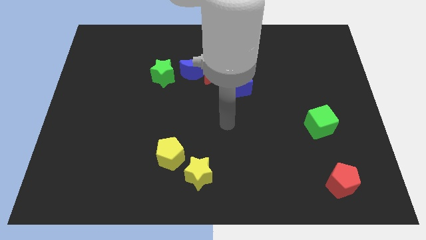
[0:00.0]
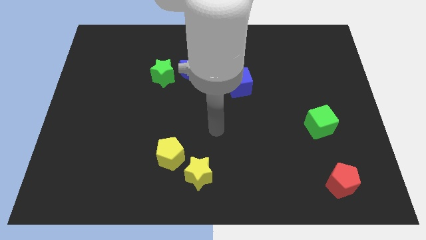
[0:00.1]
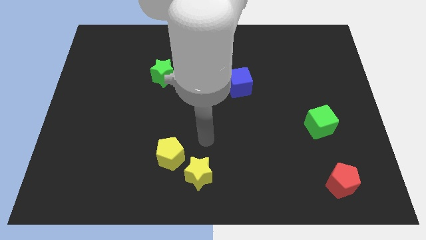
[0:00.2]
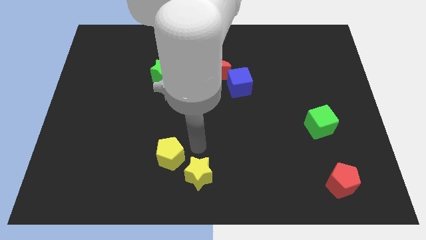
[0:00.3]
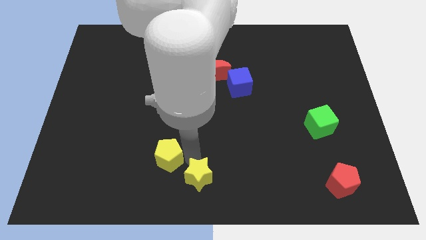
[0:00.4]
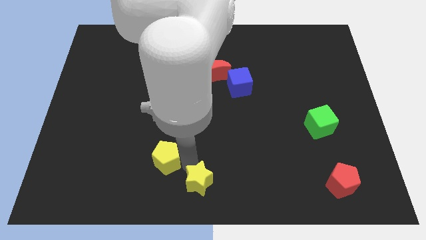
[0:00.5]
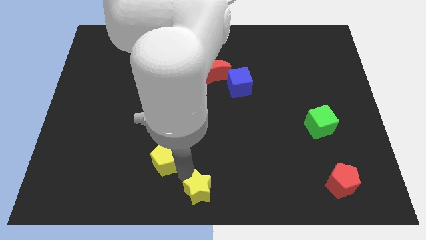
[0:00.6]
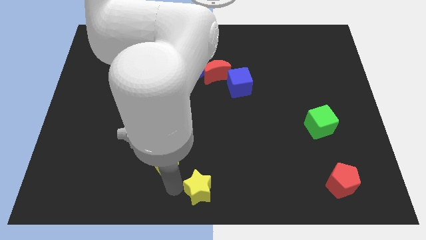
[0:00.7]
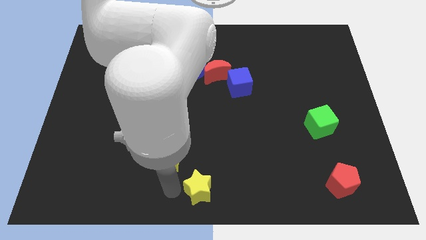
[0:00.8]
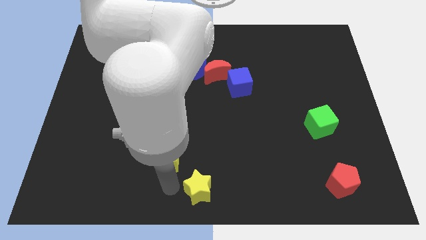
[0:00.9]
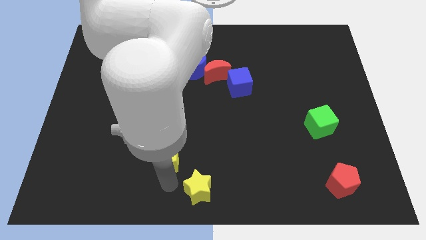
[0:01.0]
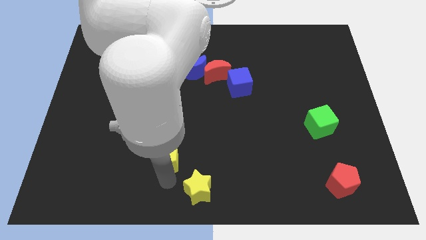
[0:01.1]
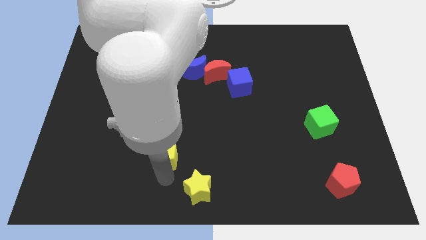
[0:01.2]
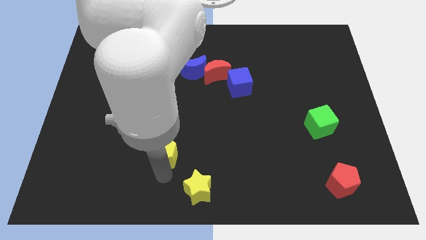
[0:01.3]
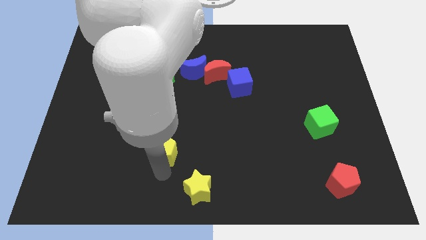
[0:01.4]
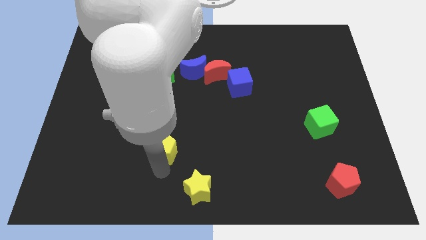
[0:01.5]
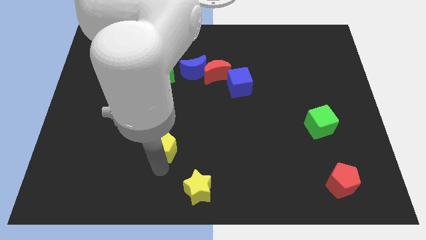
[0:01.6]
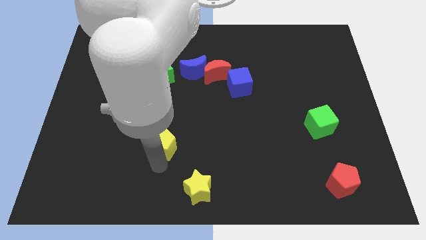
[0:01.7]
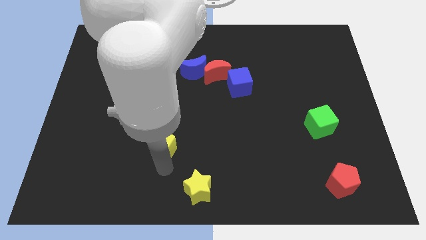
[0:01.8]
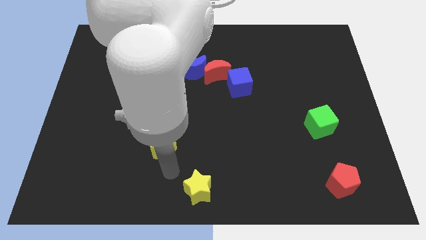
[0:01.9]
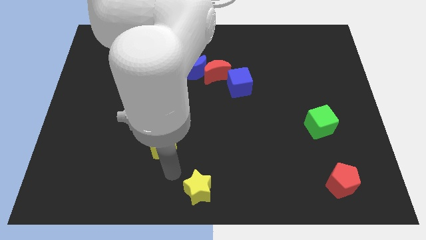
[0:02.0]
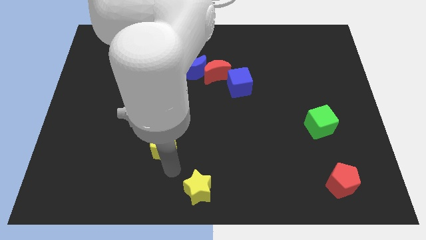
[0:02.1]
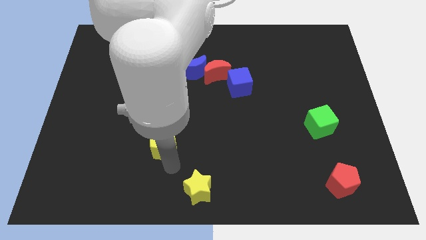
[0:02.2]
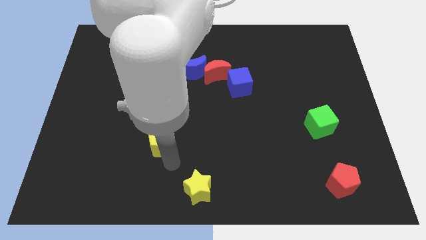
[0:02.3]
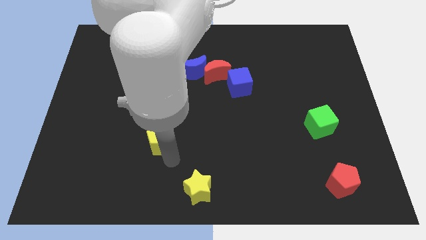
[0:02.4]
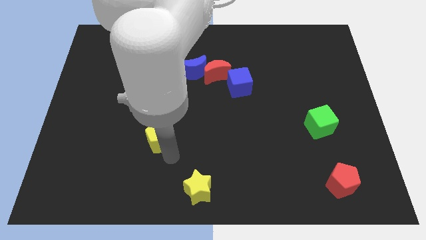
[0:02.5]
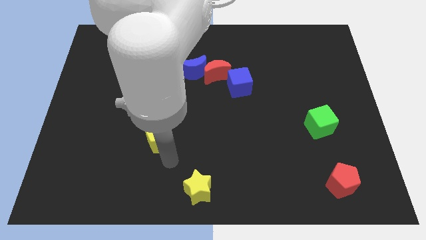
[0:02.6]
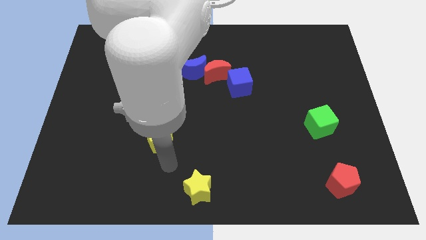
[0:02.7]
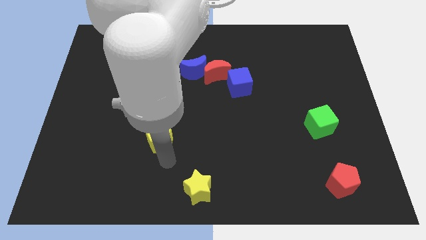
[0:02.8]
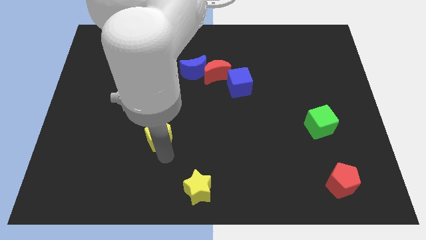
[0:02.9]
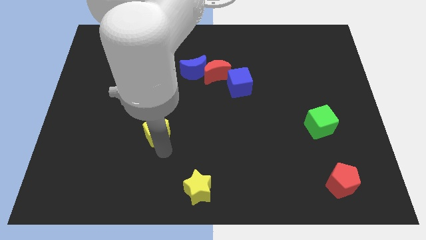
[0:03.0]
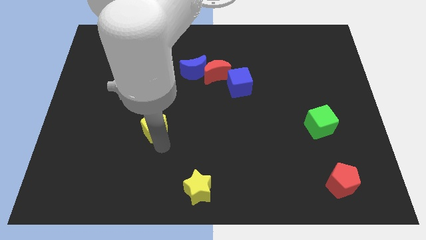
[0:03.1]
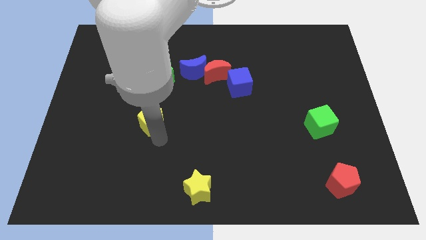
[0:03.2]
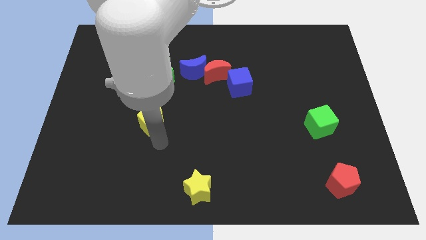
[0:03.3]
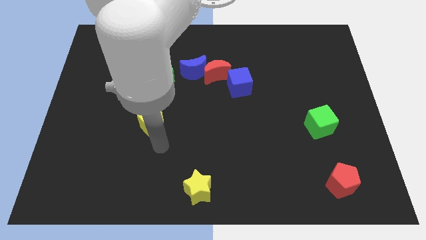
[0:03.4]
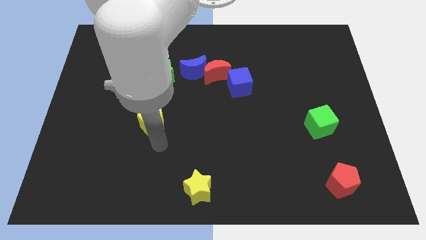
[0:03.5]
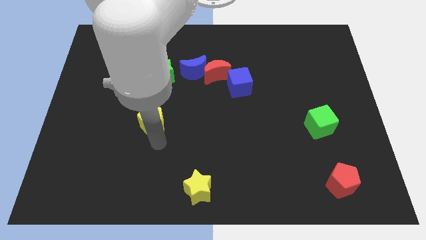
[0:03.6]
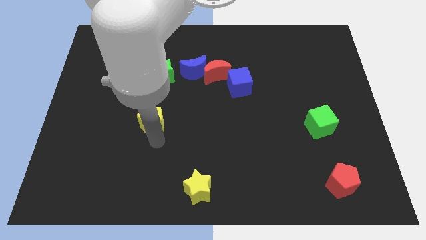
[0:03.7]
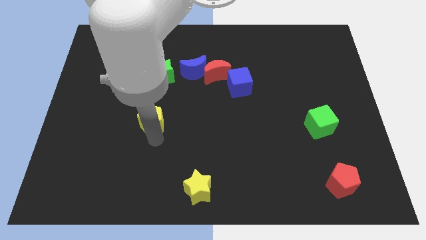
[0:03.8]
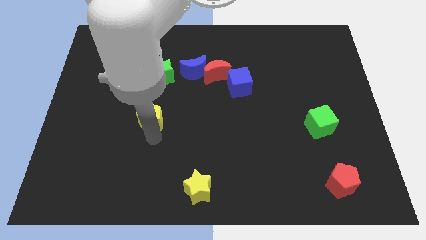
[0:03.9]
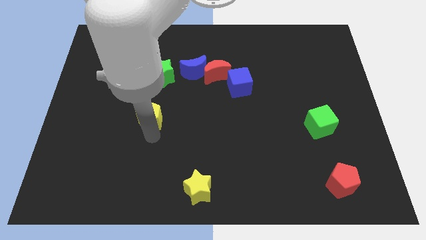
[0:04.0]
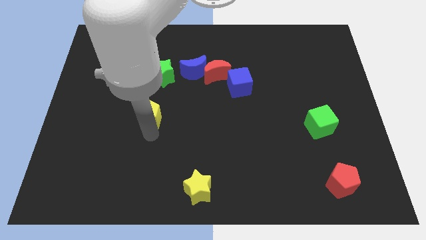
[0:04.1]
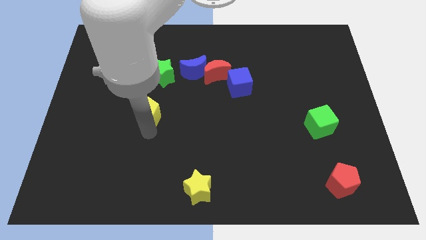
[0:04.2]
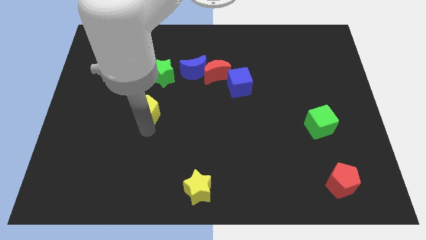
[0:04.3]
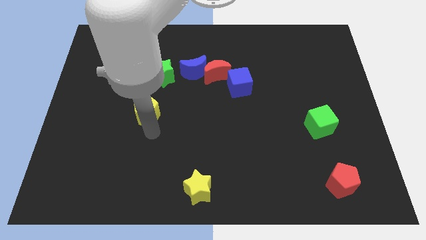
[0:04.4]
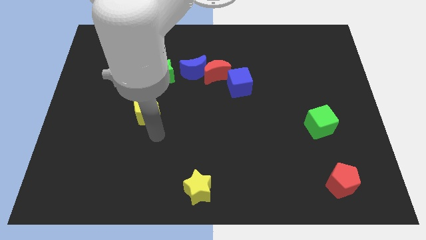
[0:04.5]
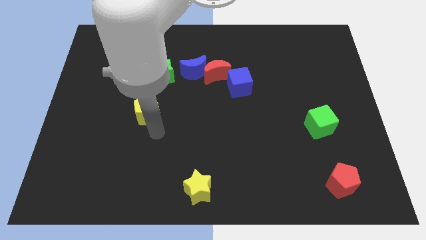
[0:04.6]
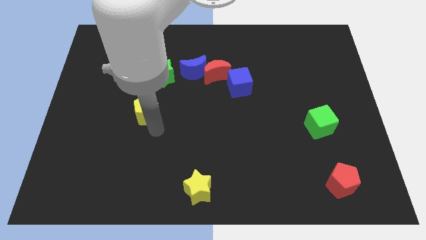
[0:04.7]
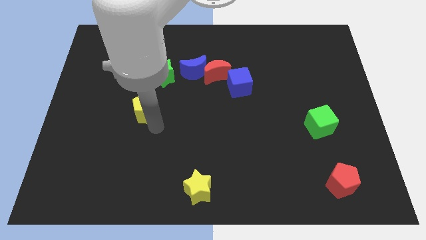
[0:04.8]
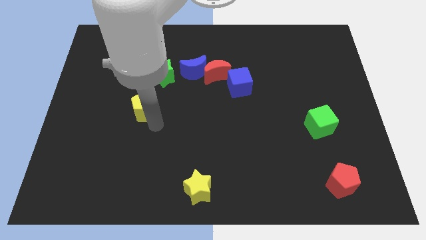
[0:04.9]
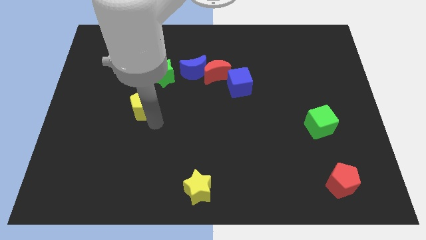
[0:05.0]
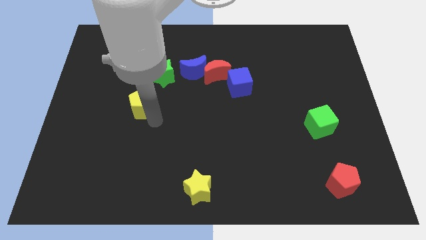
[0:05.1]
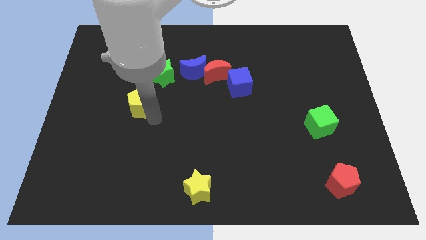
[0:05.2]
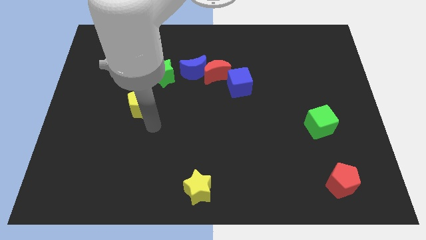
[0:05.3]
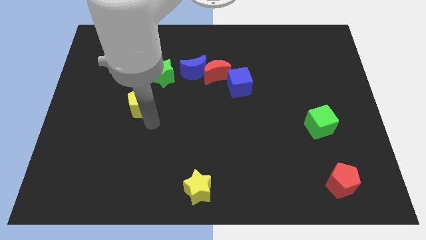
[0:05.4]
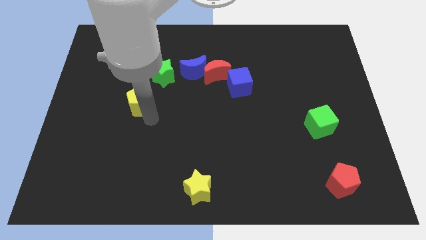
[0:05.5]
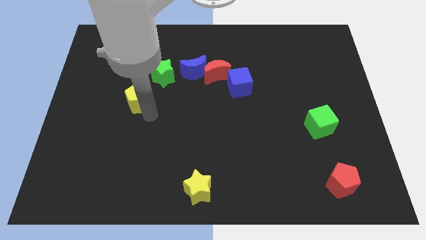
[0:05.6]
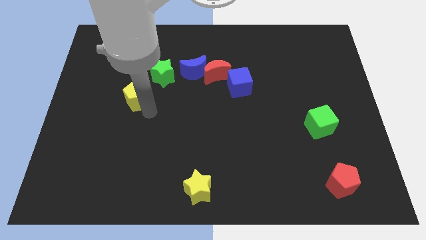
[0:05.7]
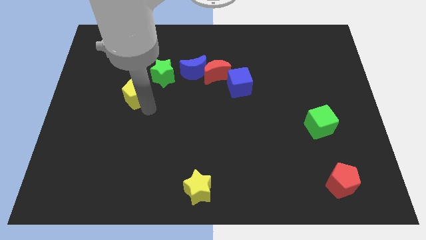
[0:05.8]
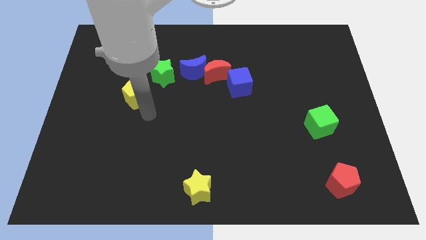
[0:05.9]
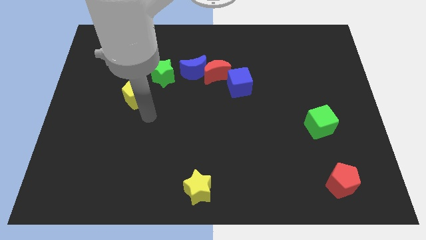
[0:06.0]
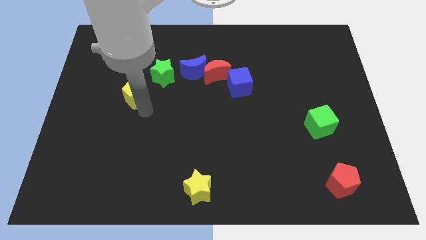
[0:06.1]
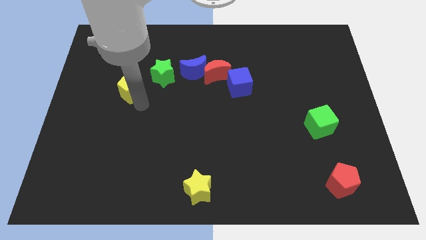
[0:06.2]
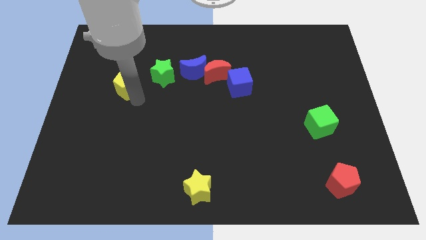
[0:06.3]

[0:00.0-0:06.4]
move the yellow pentagon just left of the green star

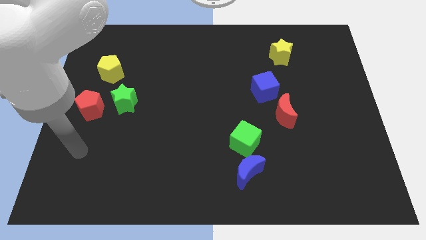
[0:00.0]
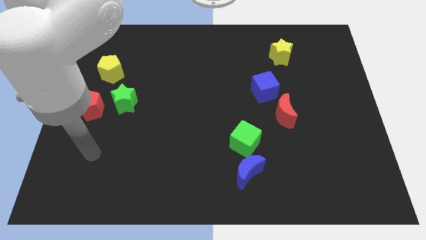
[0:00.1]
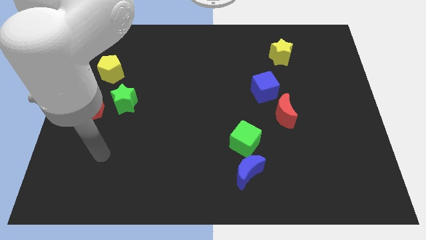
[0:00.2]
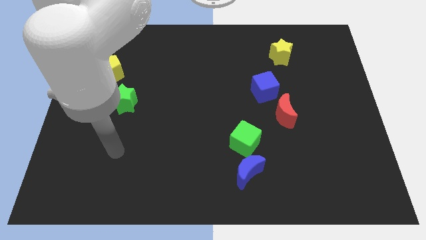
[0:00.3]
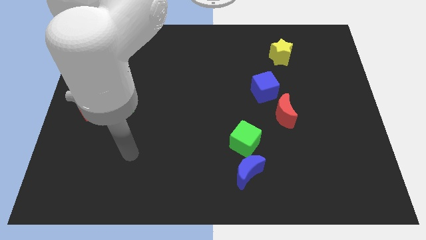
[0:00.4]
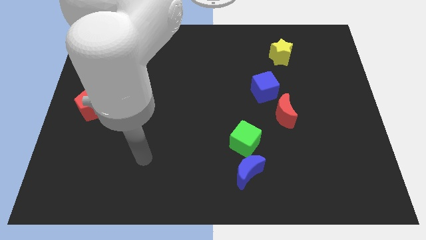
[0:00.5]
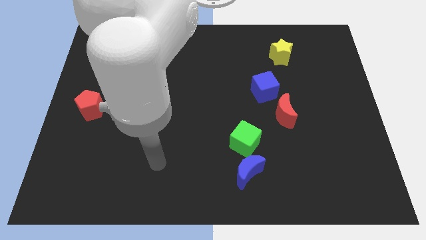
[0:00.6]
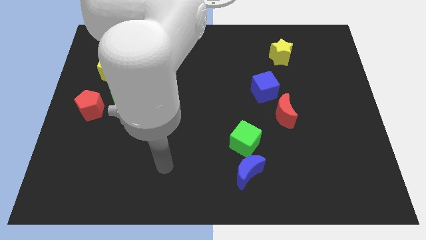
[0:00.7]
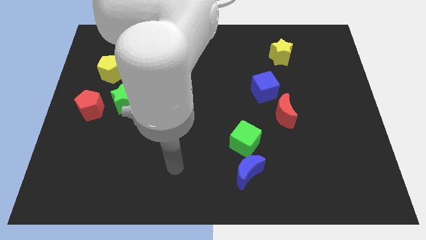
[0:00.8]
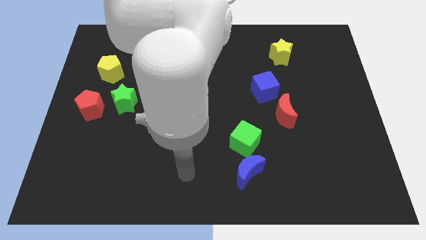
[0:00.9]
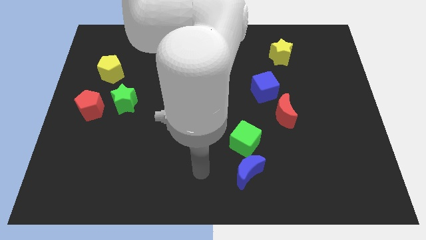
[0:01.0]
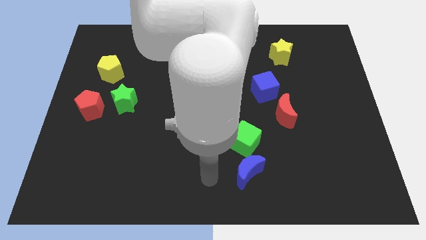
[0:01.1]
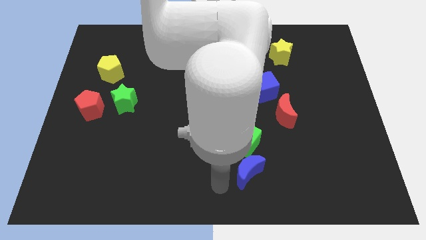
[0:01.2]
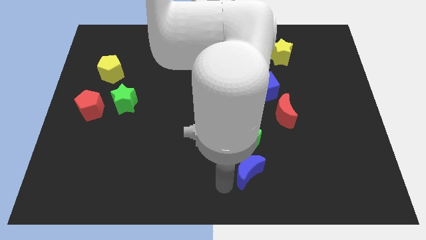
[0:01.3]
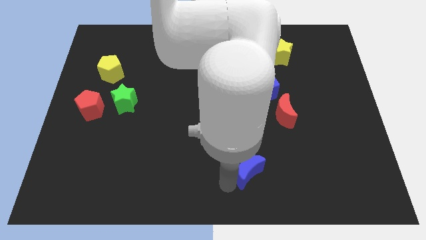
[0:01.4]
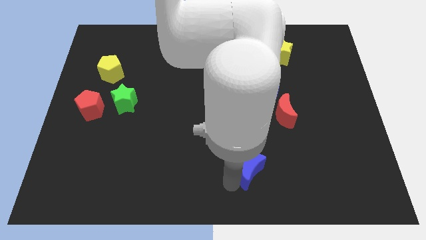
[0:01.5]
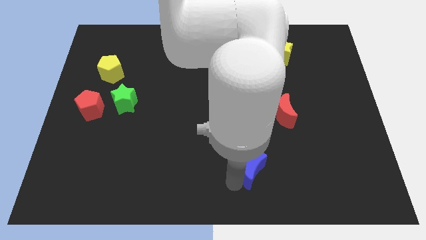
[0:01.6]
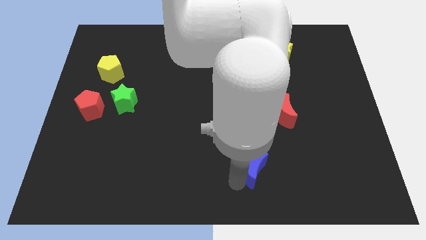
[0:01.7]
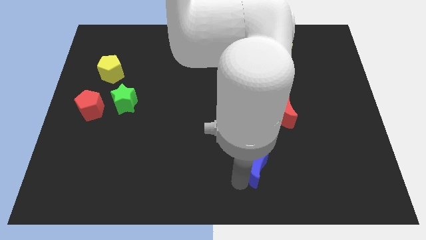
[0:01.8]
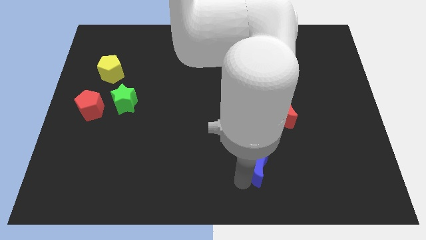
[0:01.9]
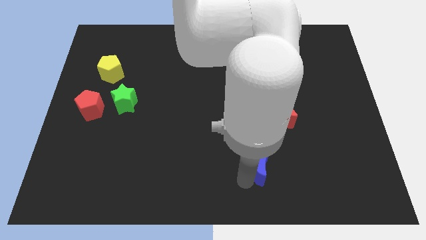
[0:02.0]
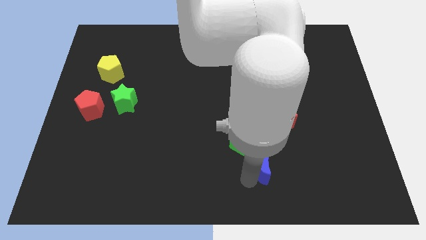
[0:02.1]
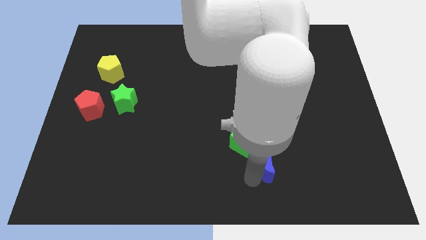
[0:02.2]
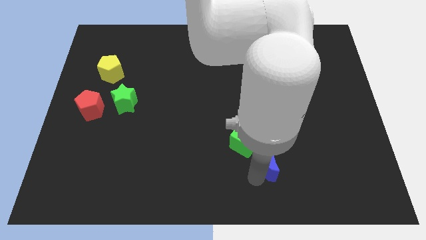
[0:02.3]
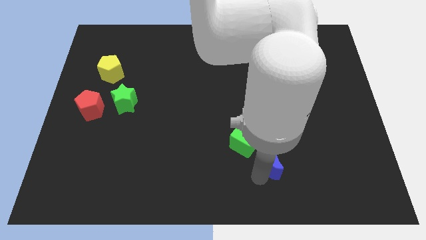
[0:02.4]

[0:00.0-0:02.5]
slide the blue moon to the bottom side of the red moon
